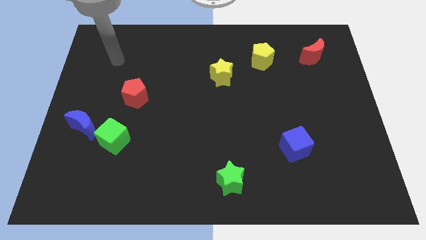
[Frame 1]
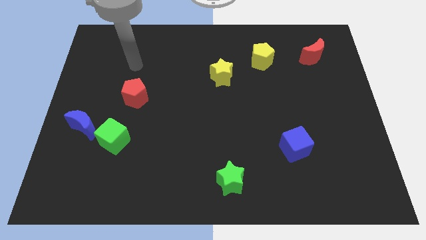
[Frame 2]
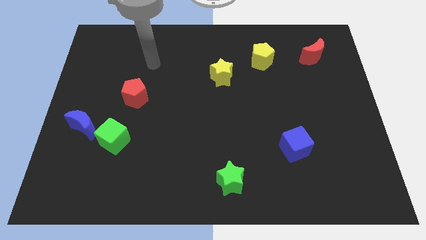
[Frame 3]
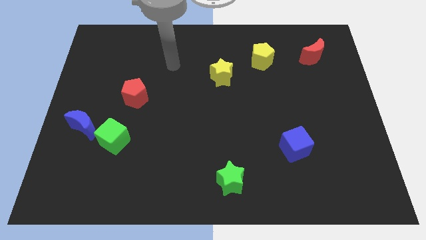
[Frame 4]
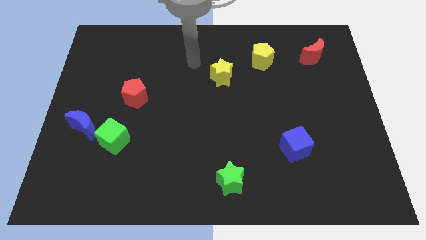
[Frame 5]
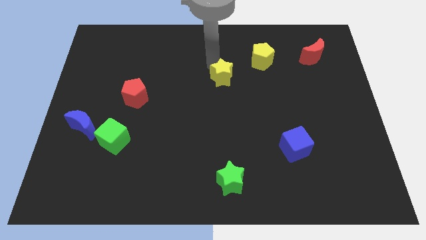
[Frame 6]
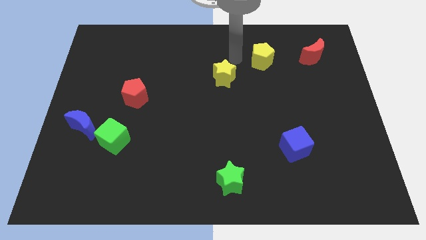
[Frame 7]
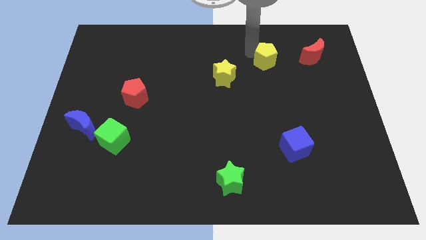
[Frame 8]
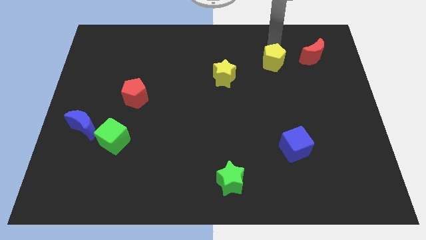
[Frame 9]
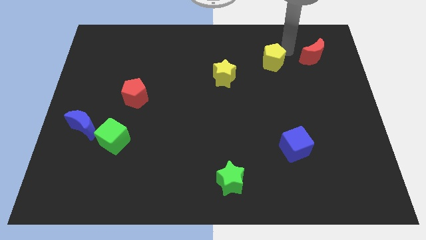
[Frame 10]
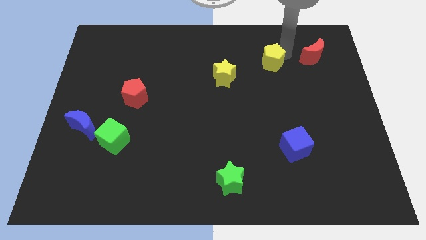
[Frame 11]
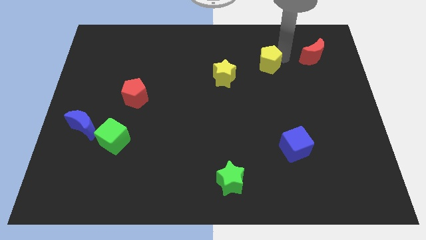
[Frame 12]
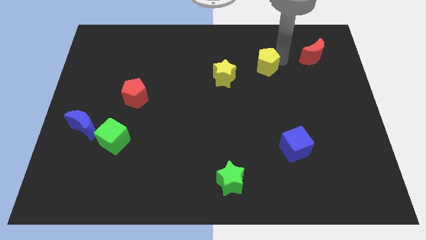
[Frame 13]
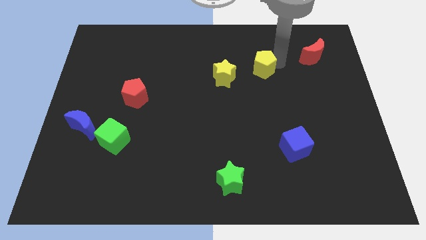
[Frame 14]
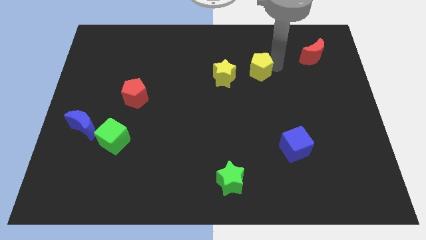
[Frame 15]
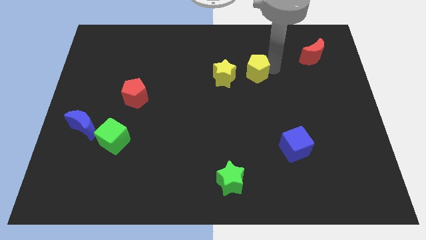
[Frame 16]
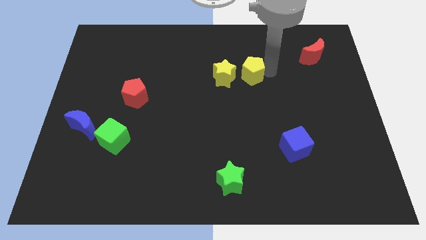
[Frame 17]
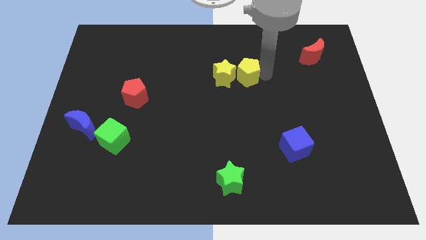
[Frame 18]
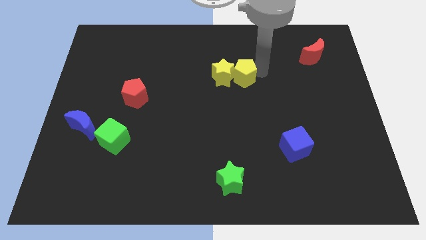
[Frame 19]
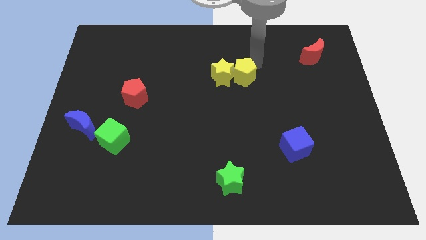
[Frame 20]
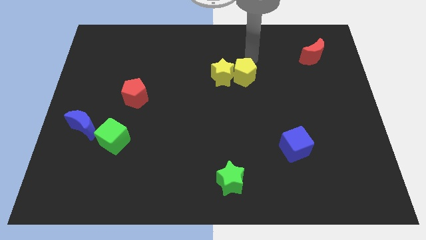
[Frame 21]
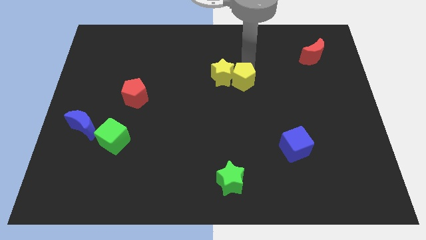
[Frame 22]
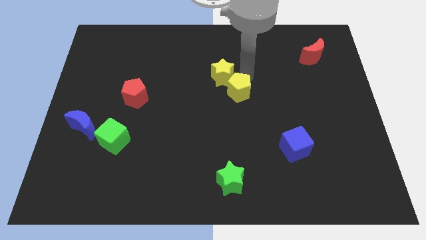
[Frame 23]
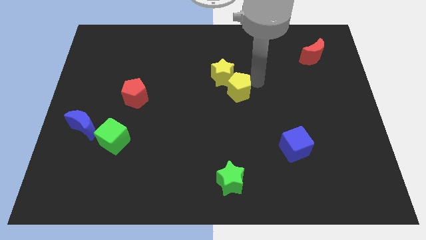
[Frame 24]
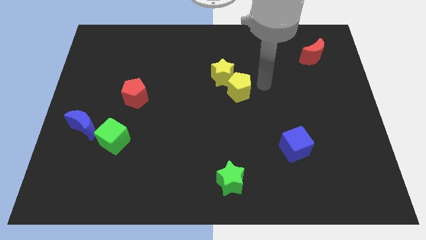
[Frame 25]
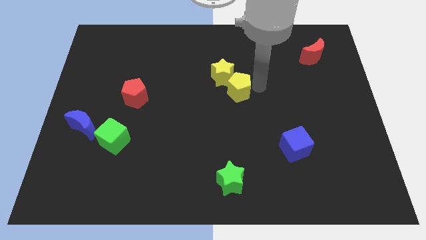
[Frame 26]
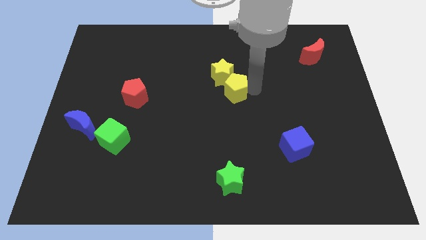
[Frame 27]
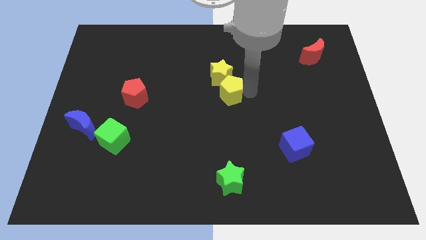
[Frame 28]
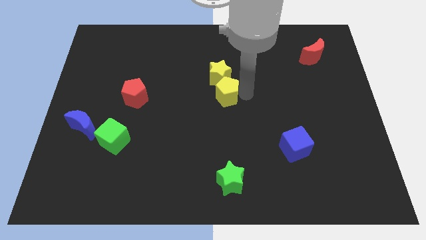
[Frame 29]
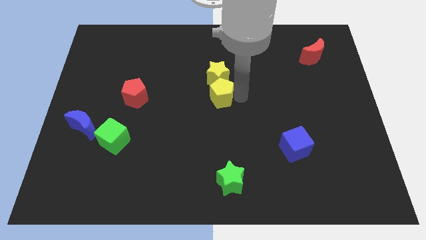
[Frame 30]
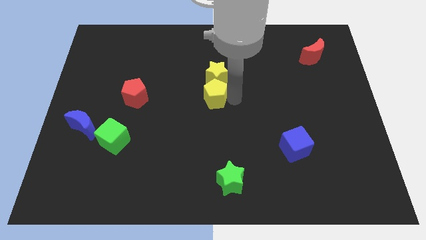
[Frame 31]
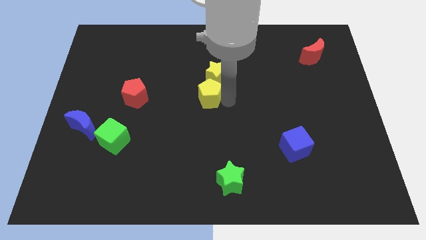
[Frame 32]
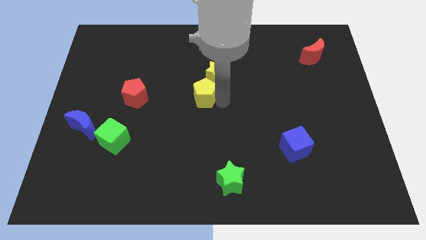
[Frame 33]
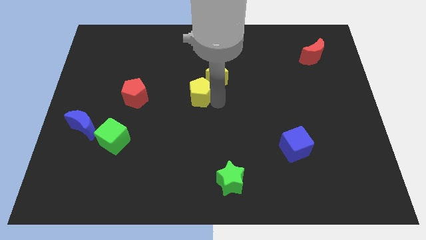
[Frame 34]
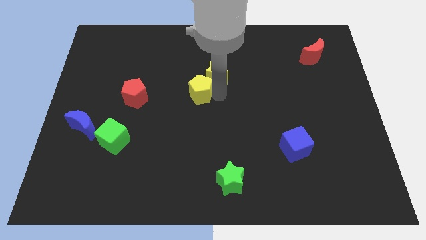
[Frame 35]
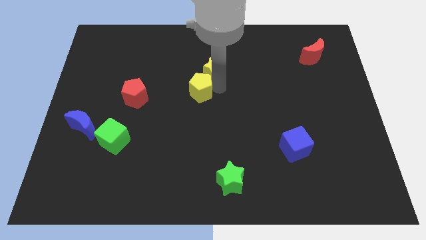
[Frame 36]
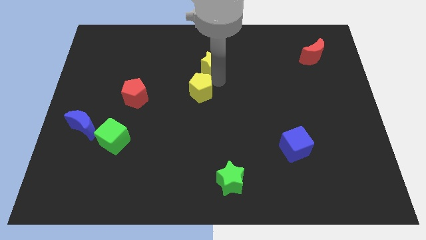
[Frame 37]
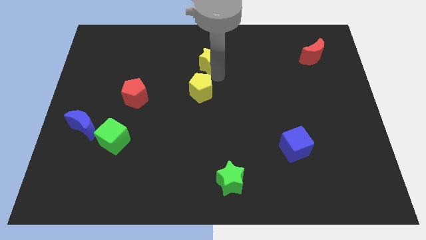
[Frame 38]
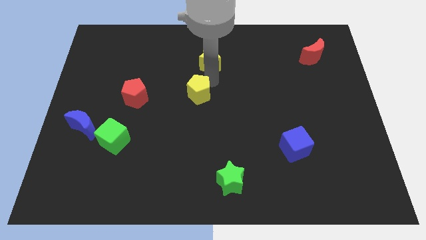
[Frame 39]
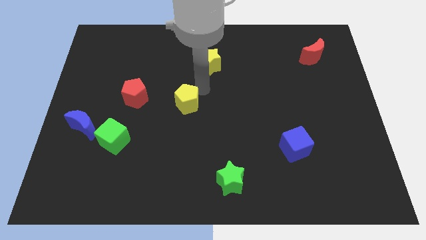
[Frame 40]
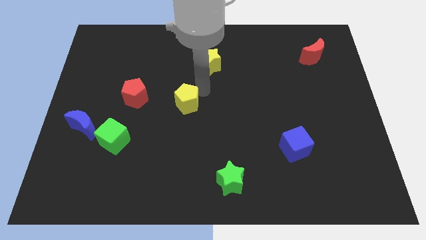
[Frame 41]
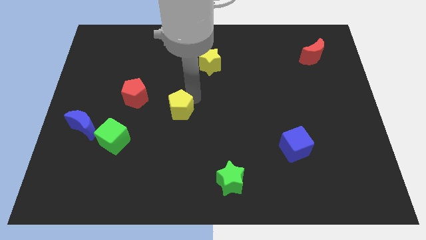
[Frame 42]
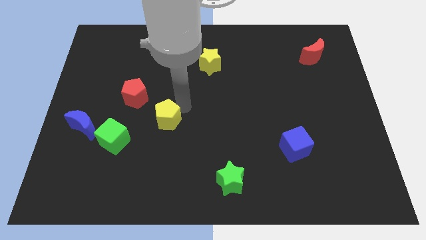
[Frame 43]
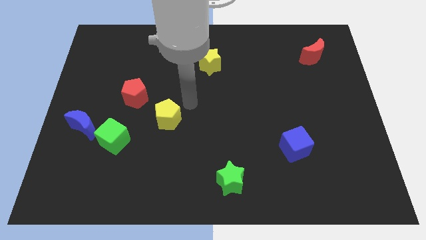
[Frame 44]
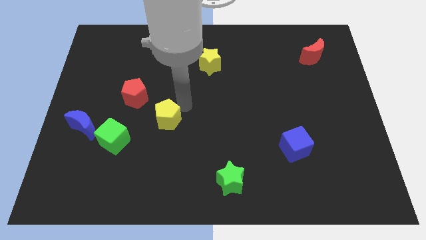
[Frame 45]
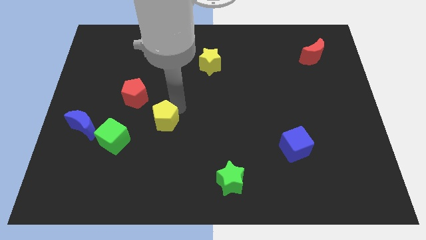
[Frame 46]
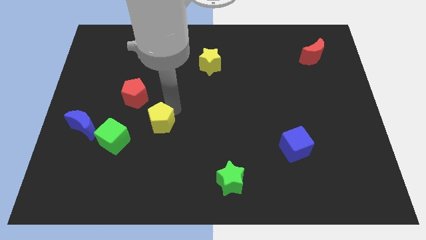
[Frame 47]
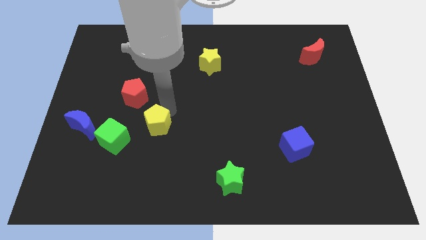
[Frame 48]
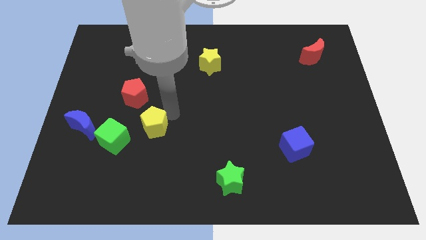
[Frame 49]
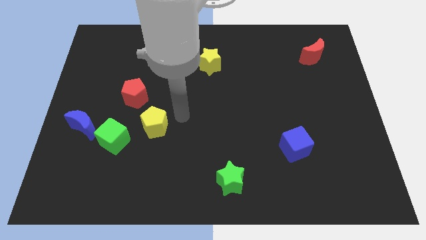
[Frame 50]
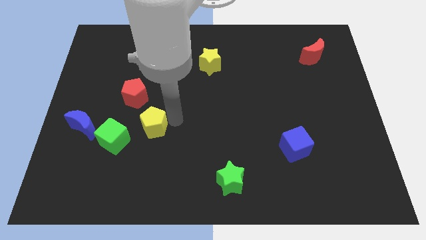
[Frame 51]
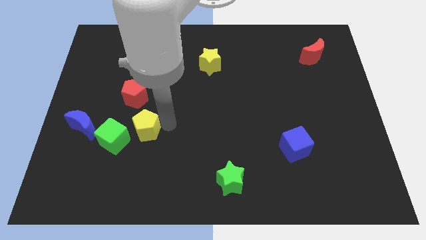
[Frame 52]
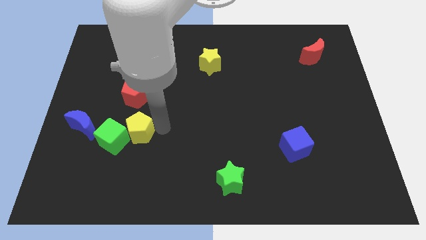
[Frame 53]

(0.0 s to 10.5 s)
slide the yellow pentagon to the green cube

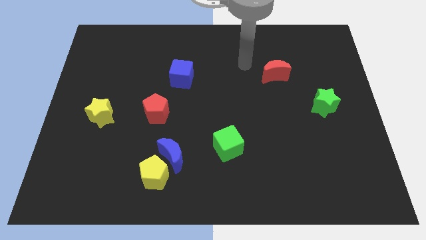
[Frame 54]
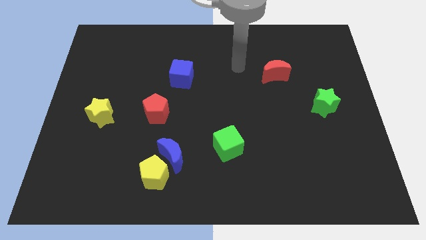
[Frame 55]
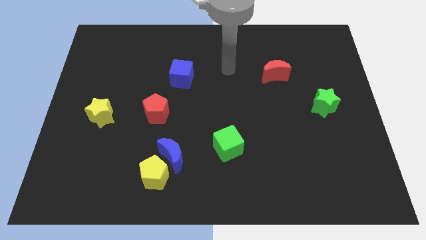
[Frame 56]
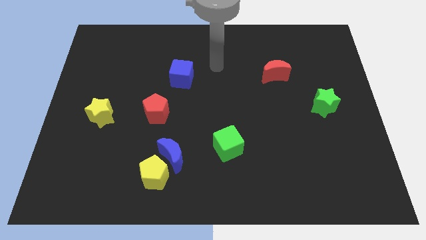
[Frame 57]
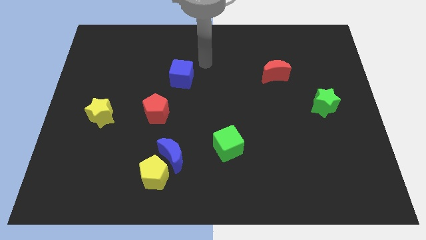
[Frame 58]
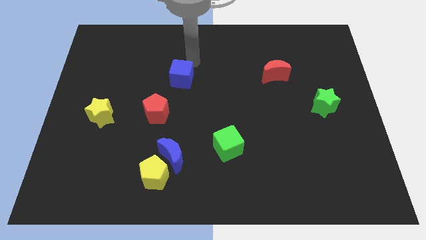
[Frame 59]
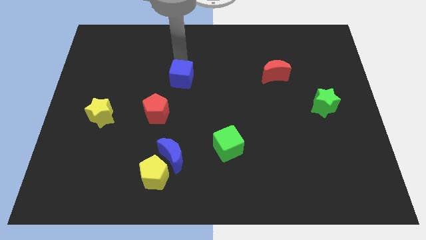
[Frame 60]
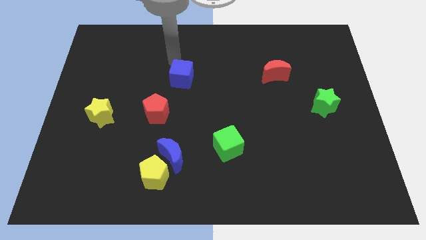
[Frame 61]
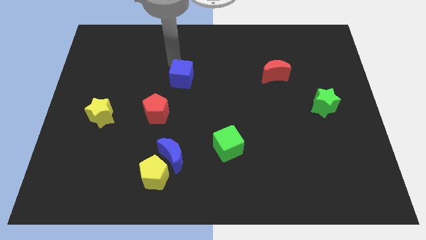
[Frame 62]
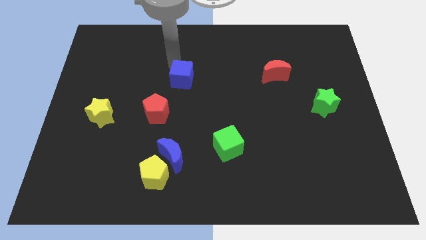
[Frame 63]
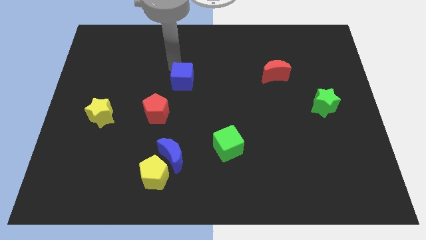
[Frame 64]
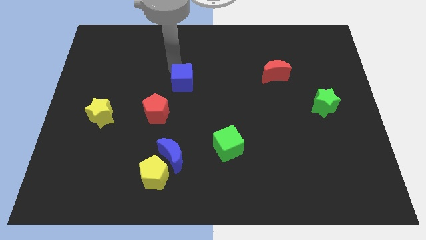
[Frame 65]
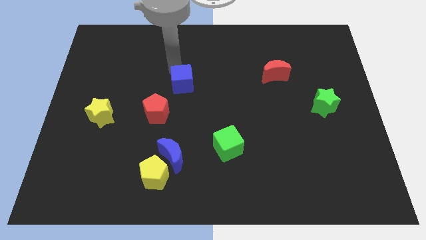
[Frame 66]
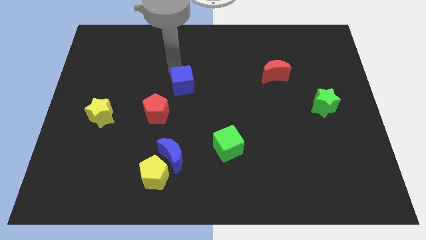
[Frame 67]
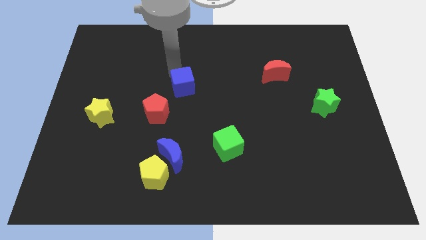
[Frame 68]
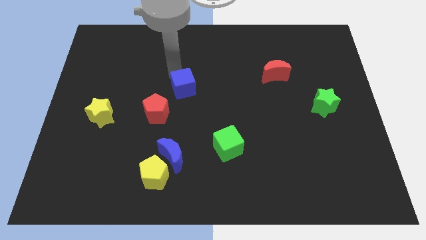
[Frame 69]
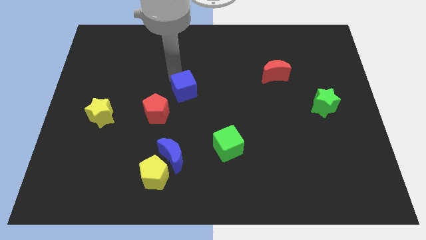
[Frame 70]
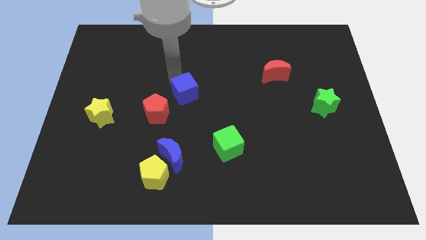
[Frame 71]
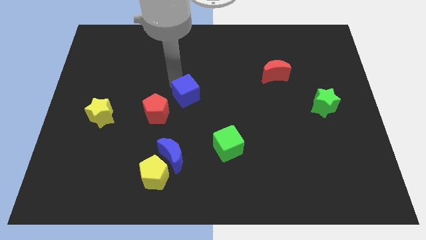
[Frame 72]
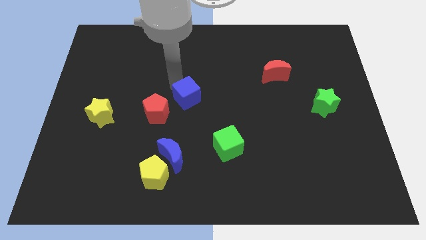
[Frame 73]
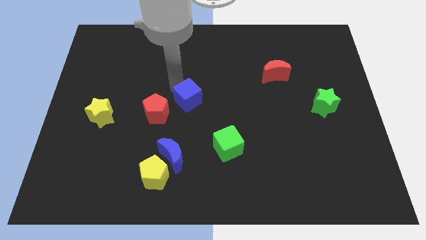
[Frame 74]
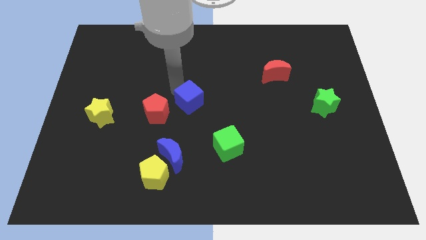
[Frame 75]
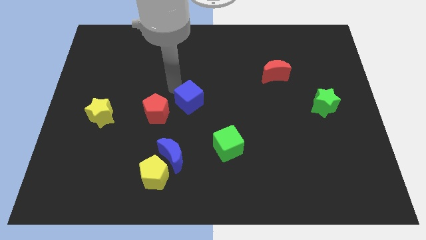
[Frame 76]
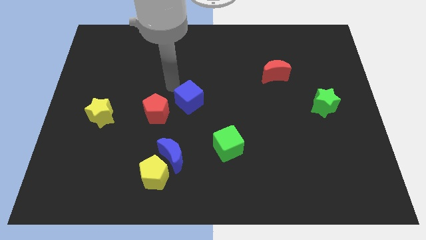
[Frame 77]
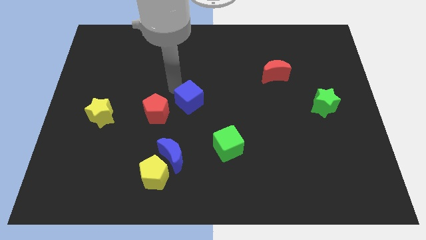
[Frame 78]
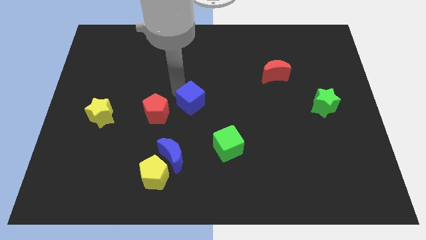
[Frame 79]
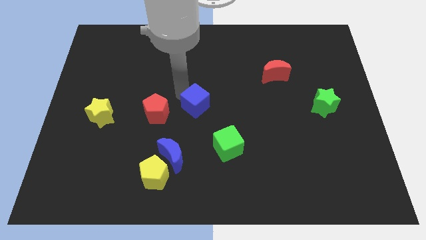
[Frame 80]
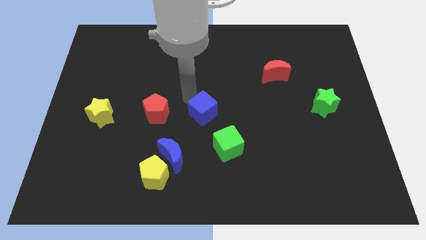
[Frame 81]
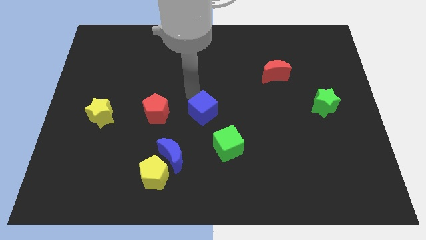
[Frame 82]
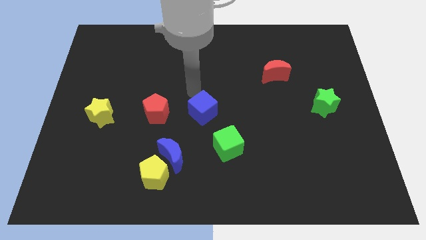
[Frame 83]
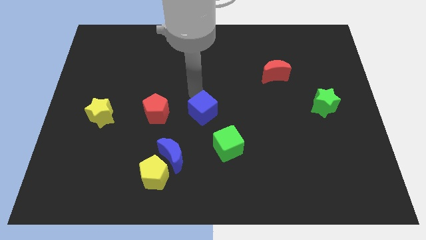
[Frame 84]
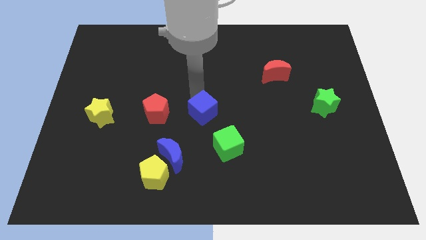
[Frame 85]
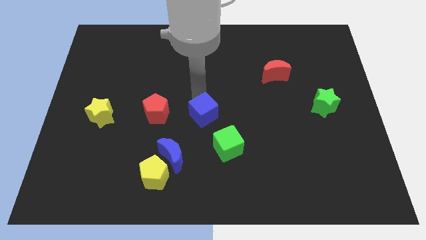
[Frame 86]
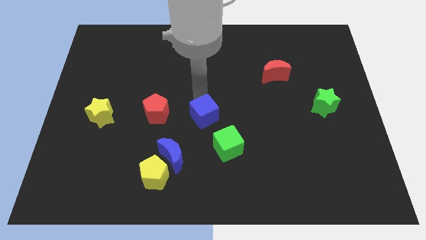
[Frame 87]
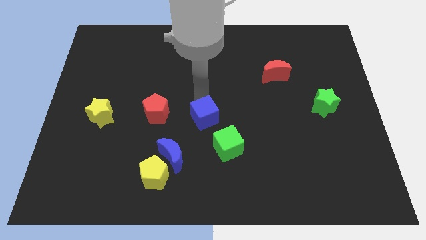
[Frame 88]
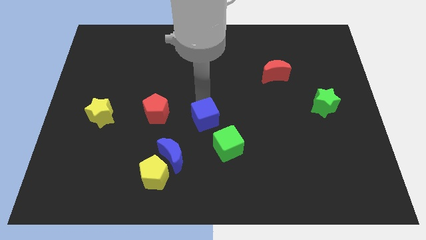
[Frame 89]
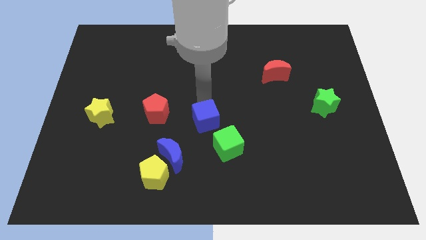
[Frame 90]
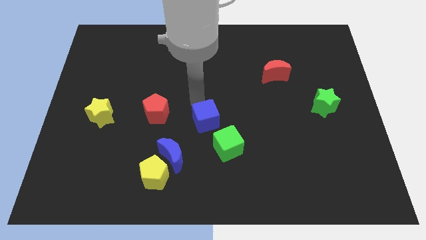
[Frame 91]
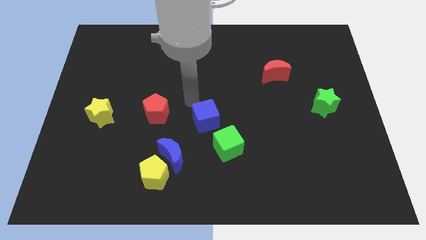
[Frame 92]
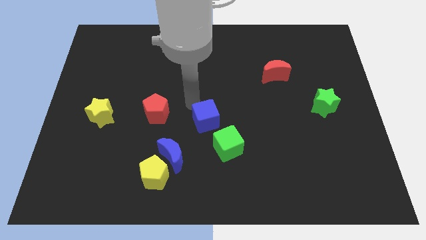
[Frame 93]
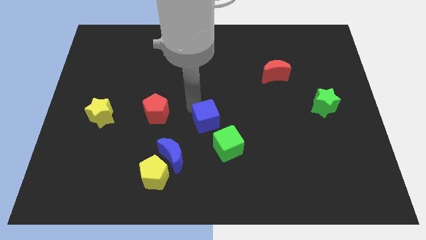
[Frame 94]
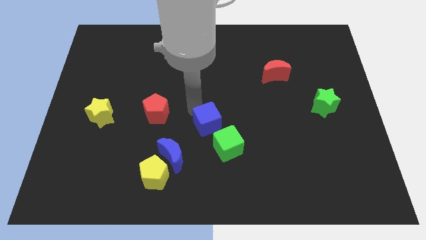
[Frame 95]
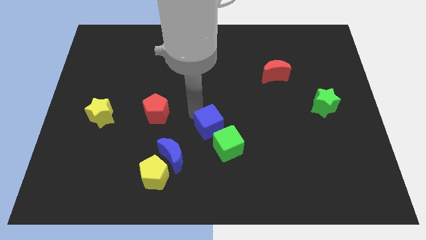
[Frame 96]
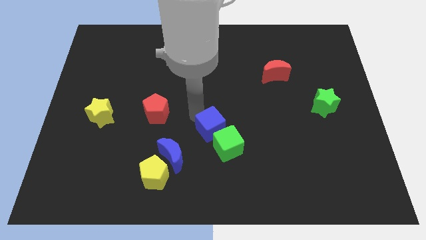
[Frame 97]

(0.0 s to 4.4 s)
push the blue cube towards the green cube
